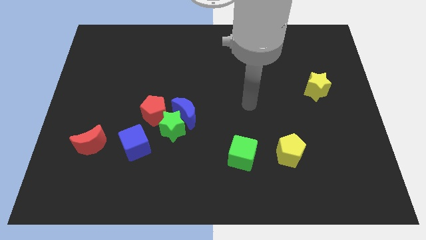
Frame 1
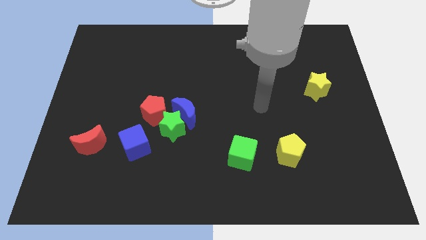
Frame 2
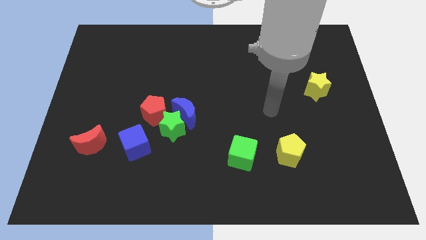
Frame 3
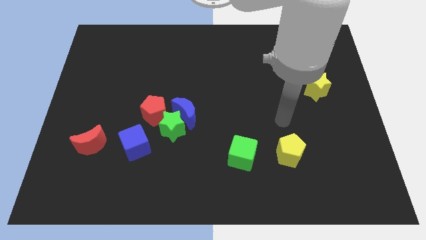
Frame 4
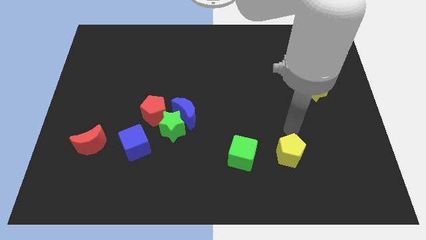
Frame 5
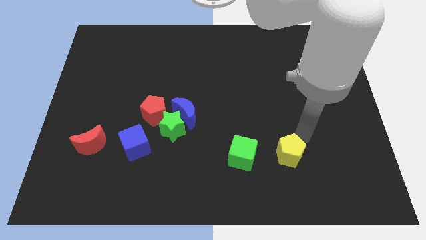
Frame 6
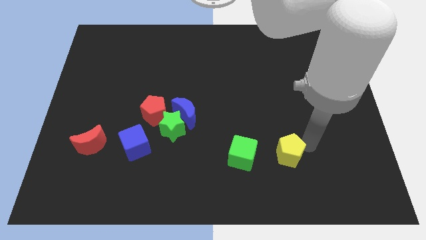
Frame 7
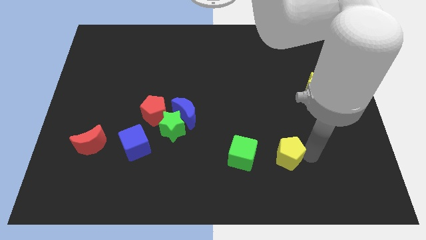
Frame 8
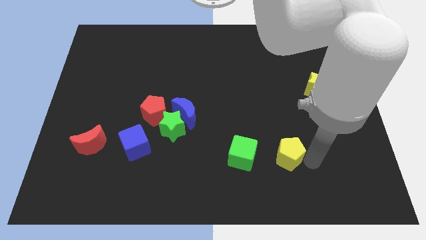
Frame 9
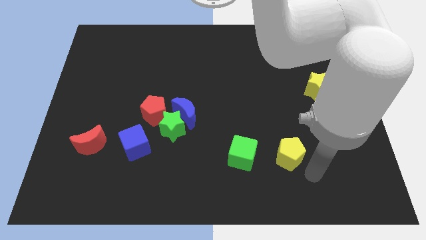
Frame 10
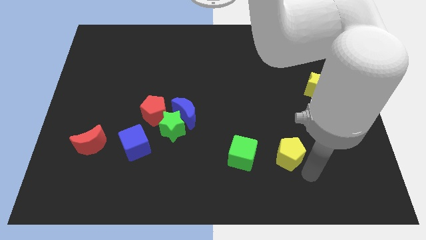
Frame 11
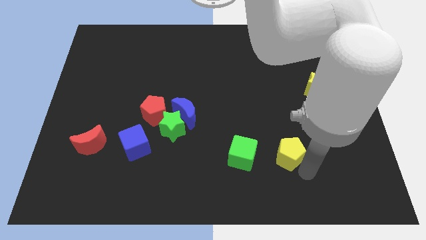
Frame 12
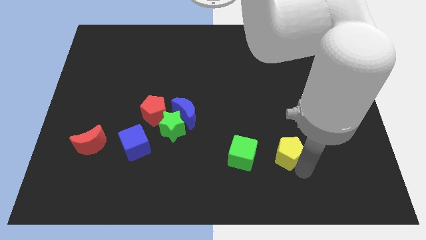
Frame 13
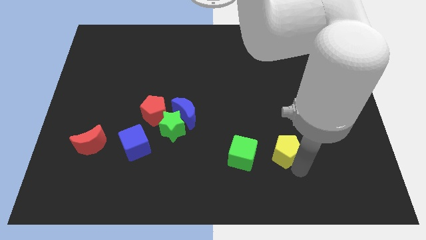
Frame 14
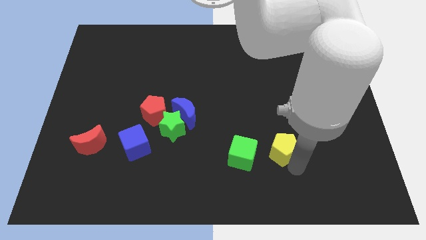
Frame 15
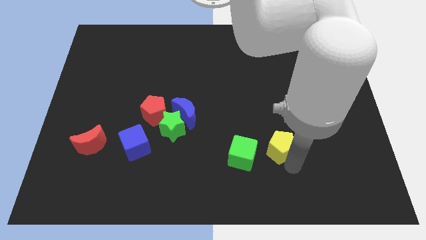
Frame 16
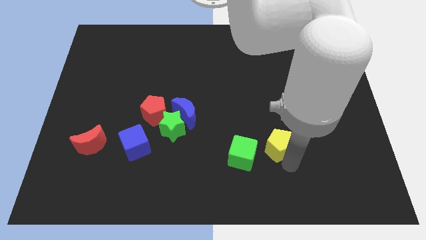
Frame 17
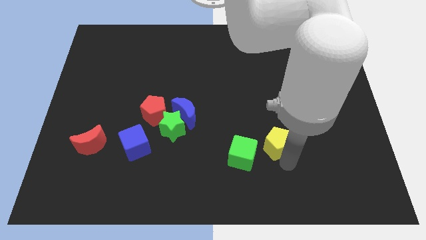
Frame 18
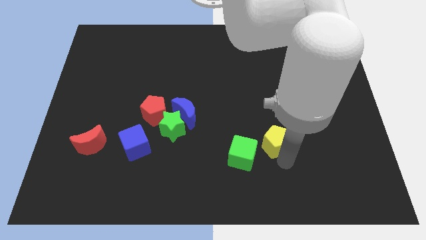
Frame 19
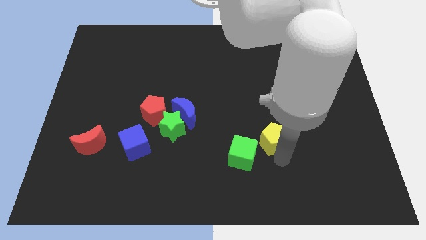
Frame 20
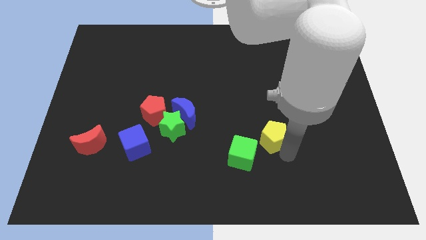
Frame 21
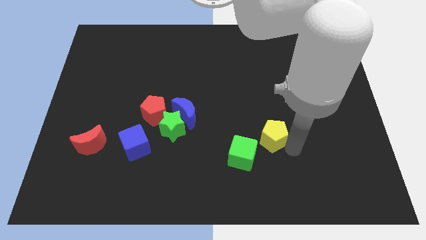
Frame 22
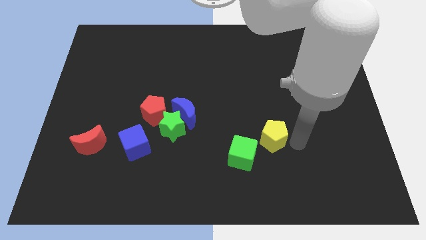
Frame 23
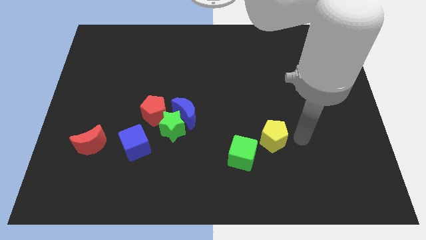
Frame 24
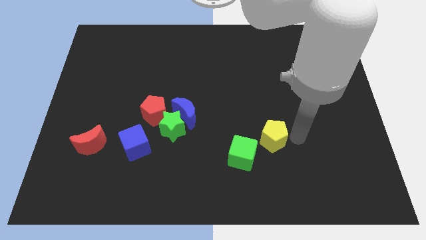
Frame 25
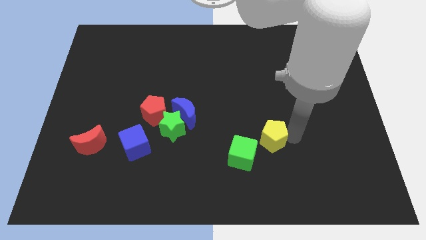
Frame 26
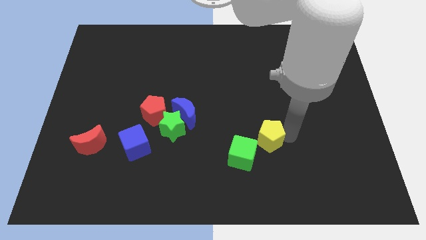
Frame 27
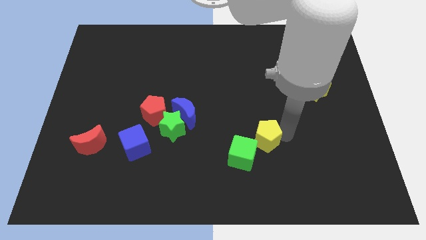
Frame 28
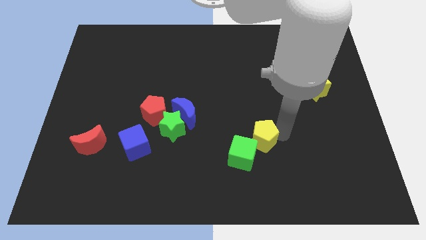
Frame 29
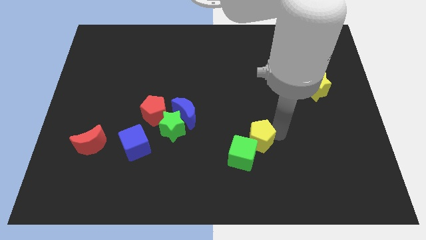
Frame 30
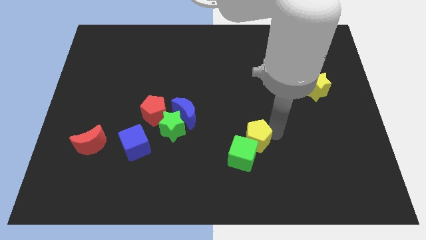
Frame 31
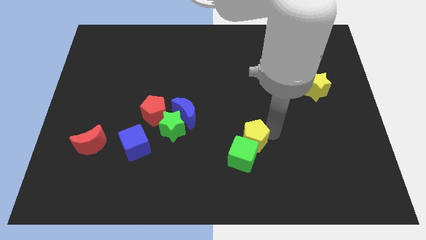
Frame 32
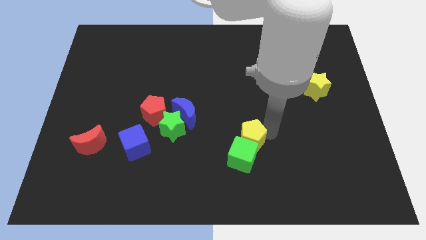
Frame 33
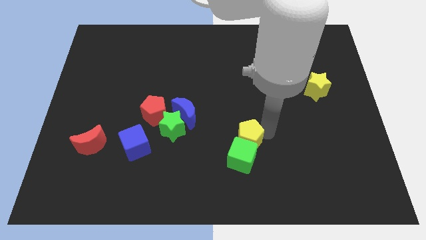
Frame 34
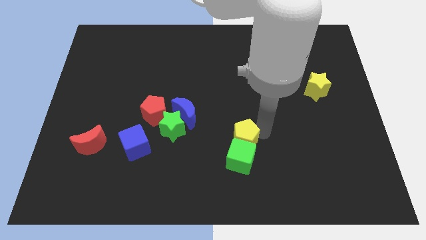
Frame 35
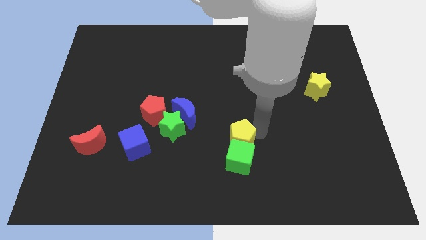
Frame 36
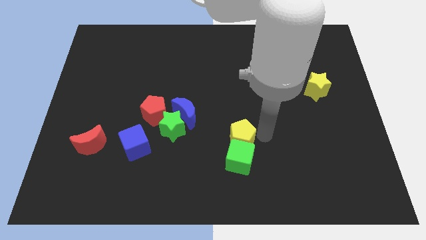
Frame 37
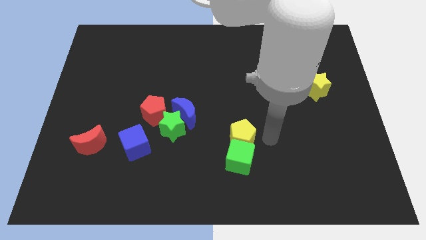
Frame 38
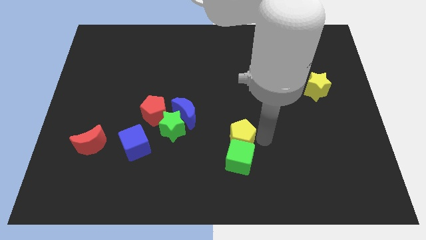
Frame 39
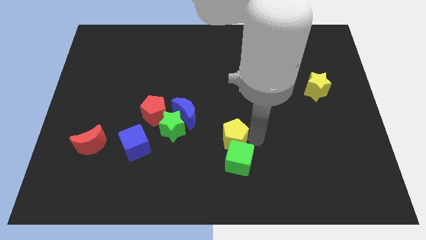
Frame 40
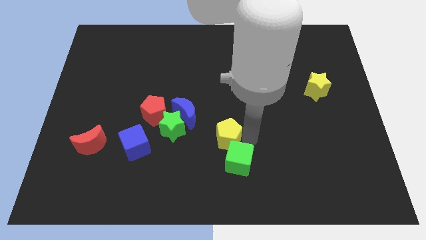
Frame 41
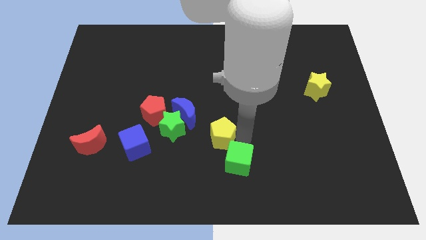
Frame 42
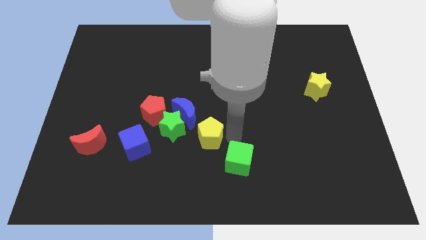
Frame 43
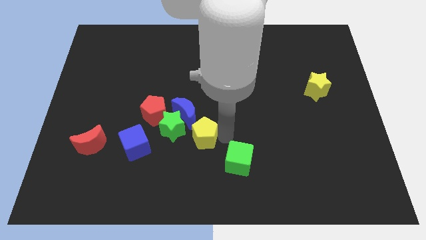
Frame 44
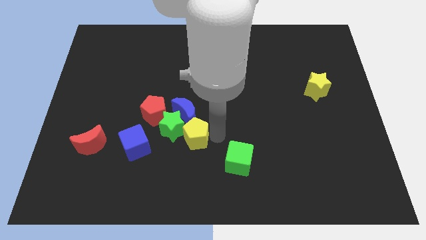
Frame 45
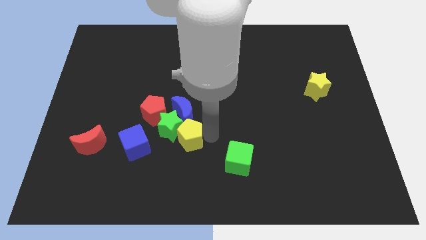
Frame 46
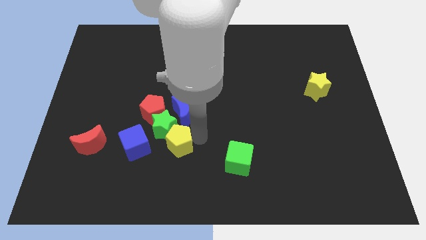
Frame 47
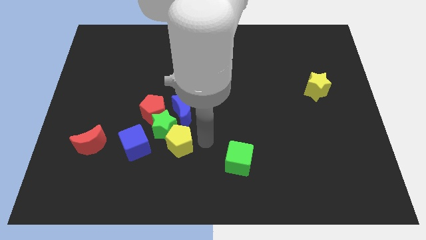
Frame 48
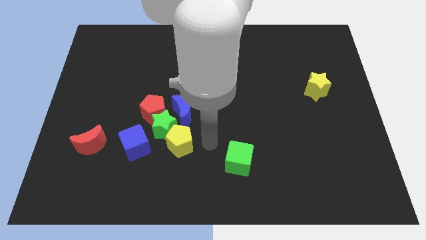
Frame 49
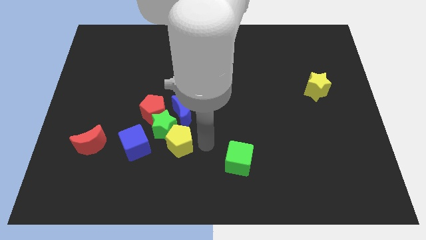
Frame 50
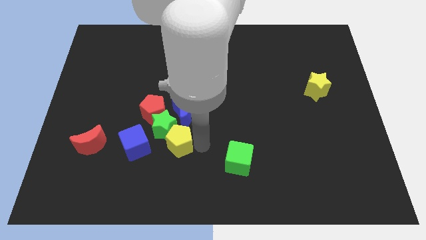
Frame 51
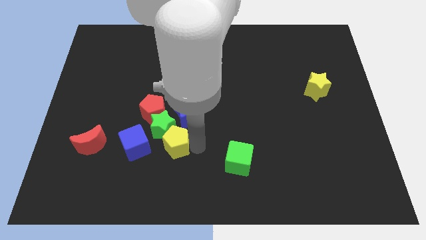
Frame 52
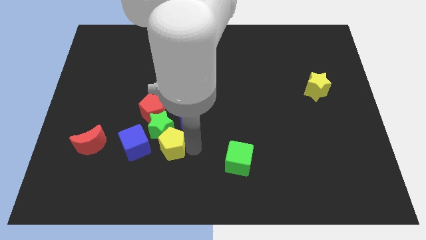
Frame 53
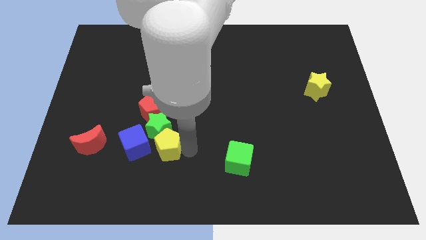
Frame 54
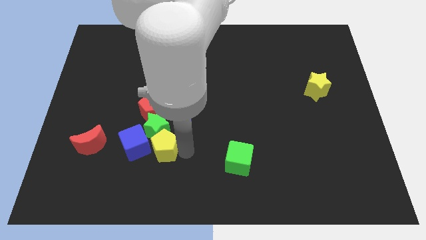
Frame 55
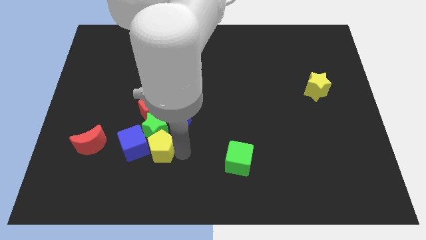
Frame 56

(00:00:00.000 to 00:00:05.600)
push the yellow pentagon to the blue cube
